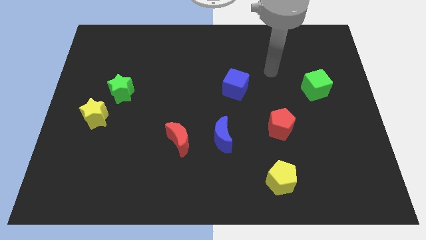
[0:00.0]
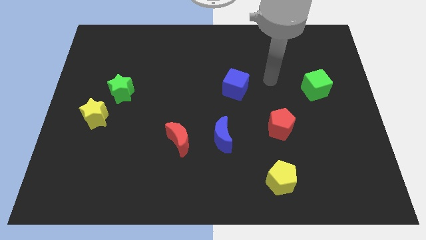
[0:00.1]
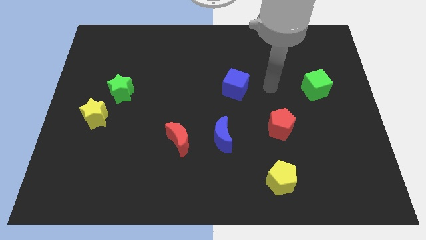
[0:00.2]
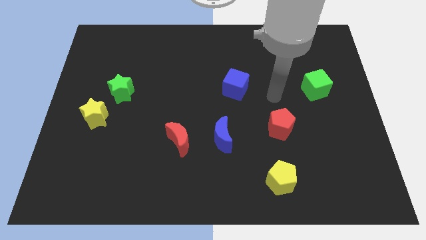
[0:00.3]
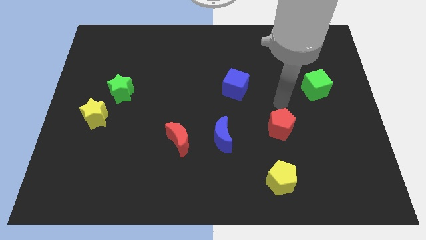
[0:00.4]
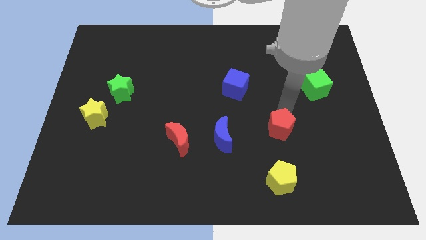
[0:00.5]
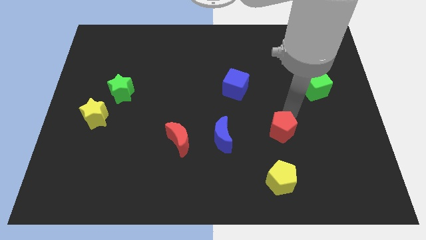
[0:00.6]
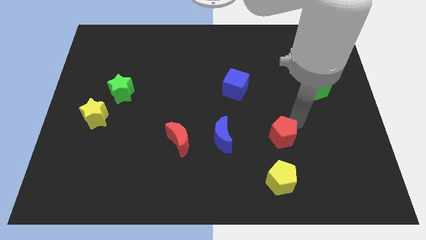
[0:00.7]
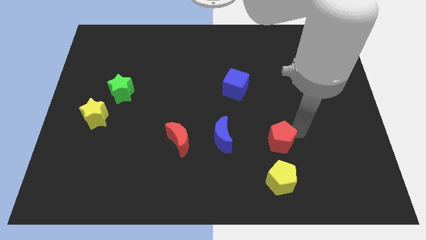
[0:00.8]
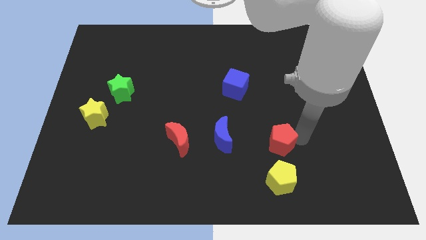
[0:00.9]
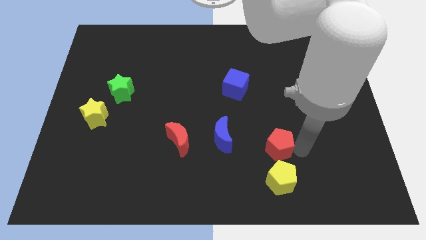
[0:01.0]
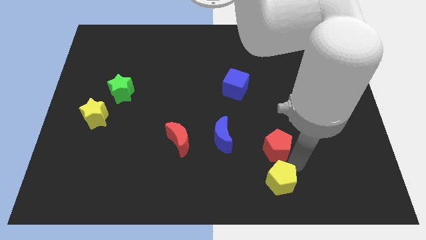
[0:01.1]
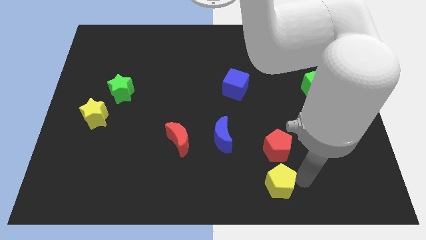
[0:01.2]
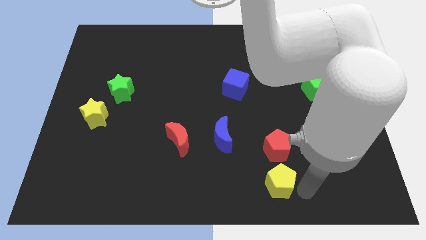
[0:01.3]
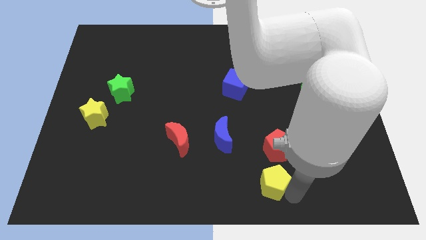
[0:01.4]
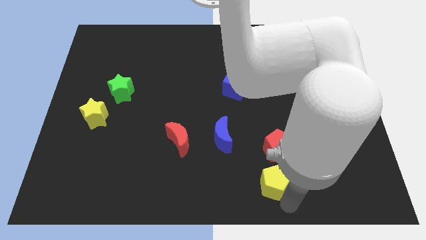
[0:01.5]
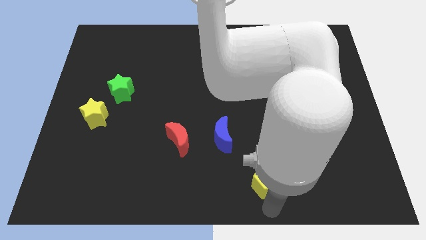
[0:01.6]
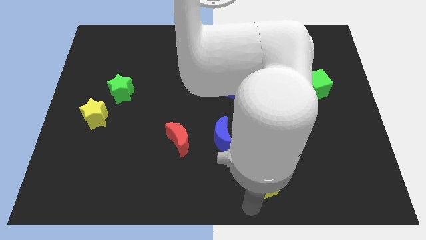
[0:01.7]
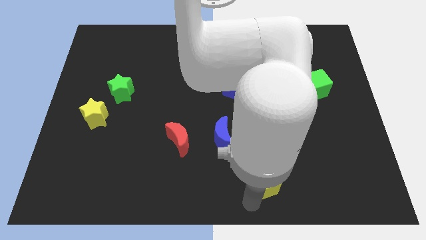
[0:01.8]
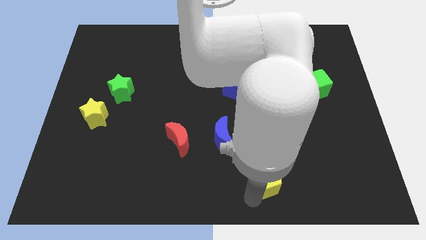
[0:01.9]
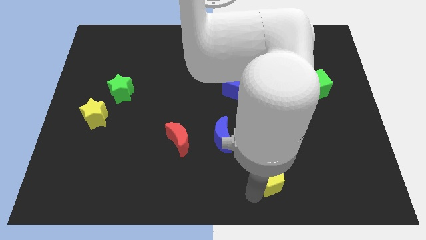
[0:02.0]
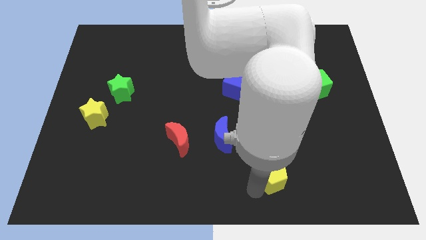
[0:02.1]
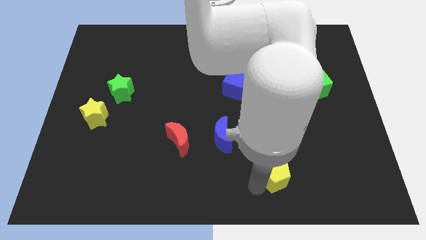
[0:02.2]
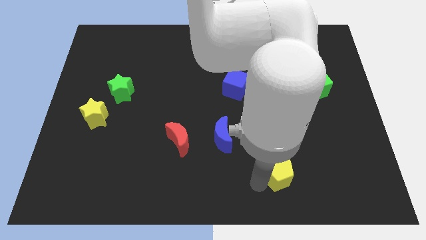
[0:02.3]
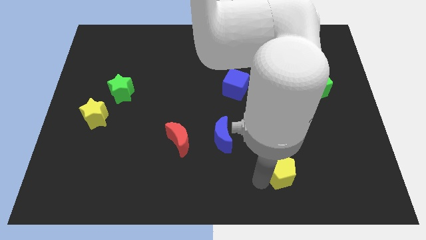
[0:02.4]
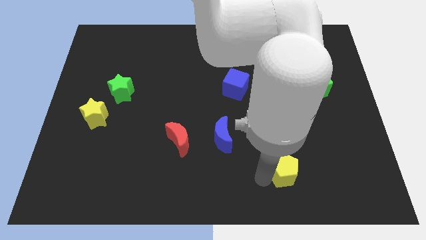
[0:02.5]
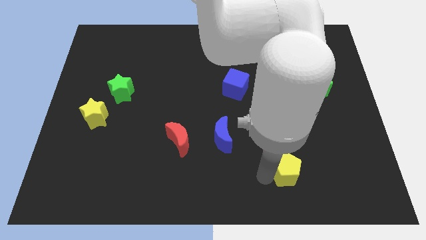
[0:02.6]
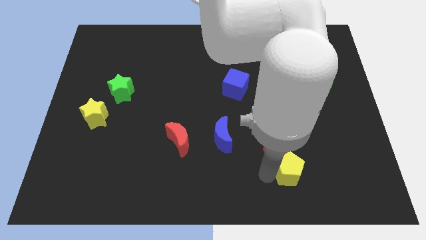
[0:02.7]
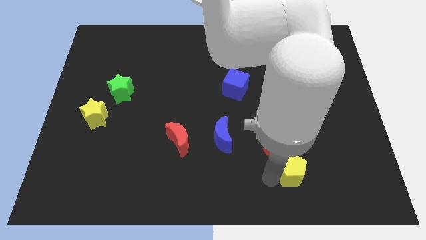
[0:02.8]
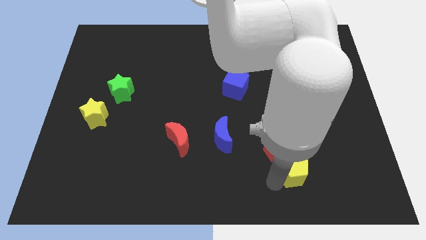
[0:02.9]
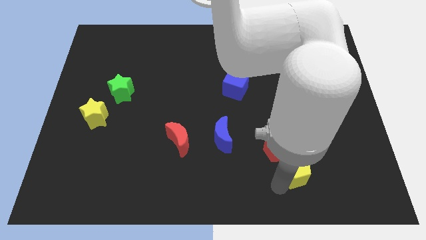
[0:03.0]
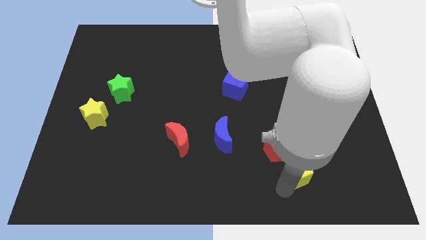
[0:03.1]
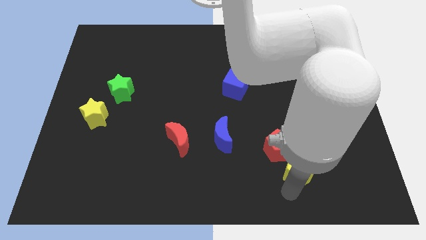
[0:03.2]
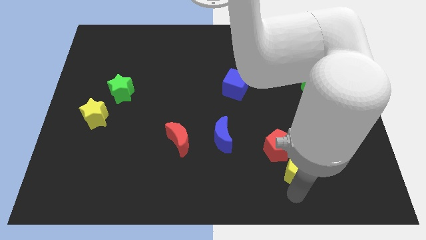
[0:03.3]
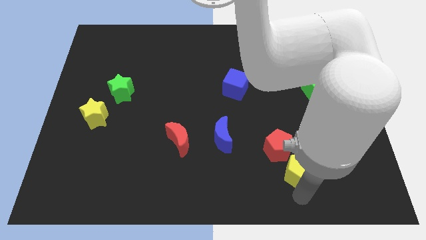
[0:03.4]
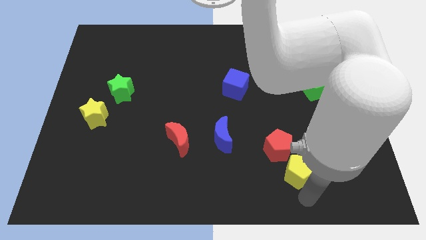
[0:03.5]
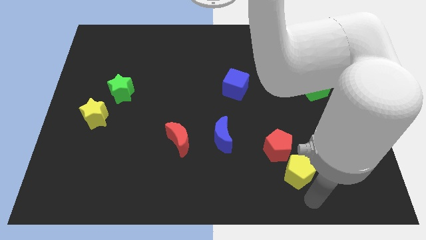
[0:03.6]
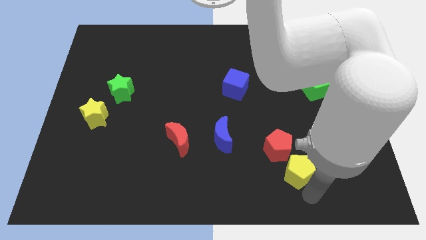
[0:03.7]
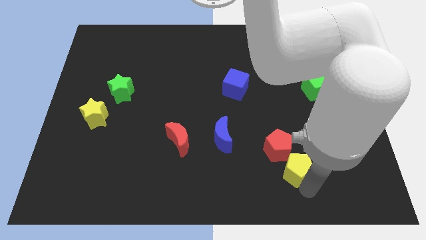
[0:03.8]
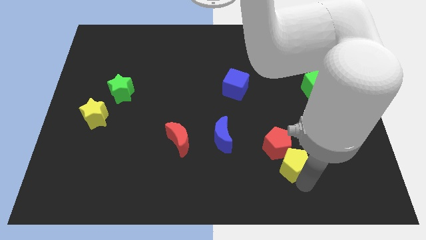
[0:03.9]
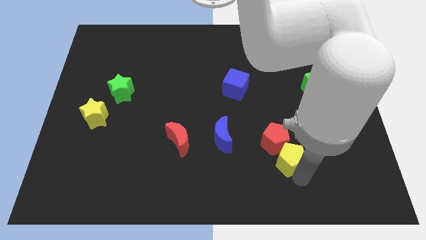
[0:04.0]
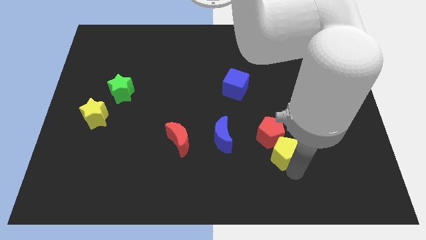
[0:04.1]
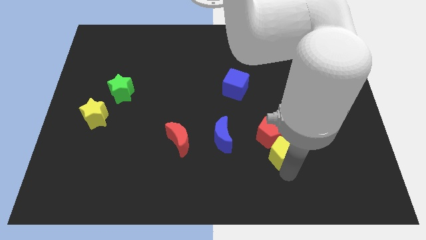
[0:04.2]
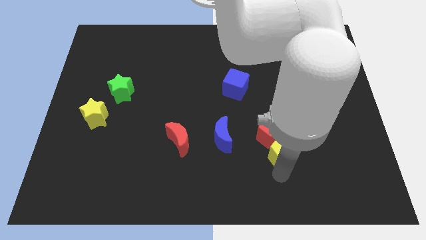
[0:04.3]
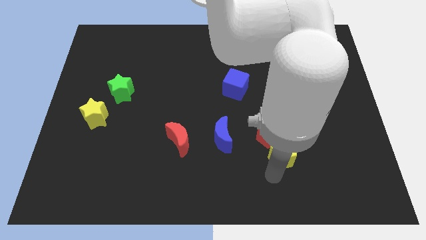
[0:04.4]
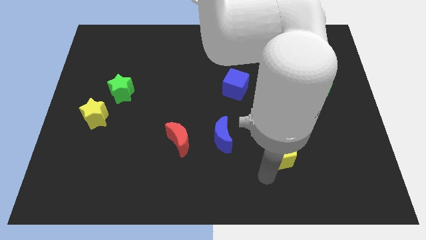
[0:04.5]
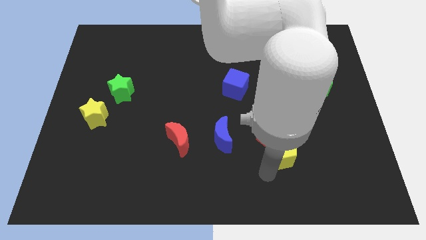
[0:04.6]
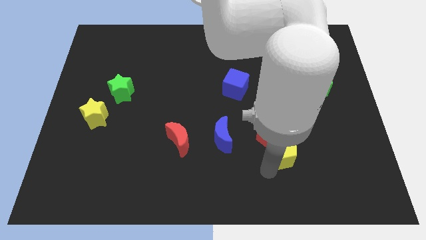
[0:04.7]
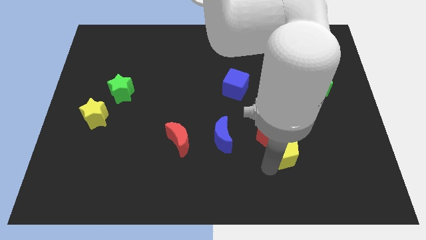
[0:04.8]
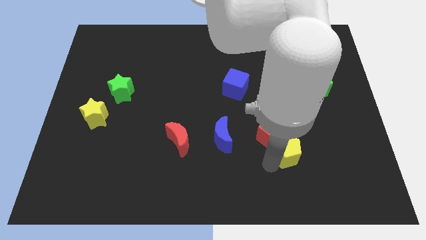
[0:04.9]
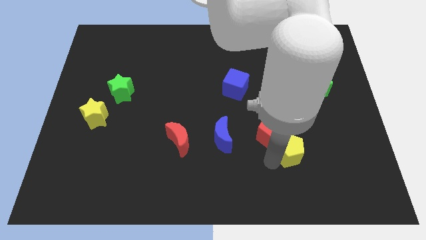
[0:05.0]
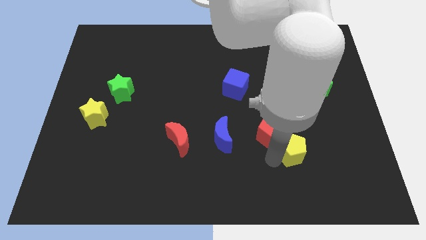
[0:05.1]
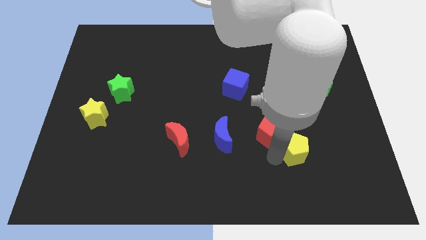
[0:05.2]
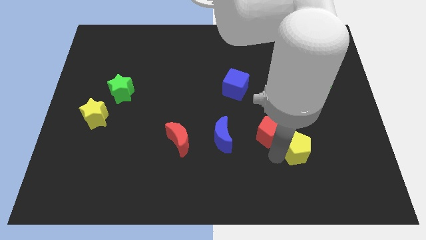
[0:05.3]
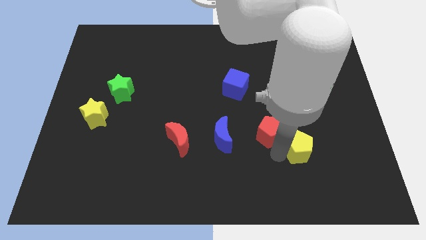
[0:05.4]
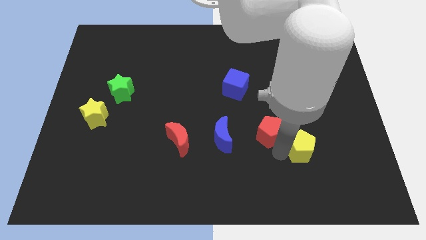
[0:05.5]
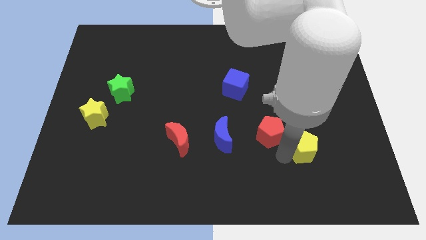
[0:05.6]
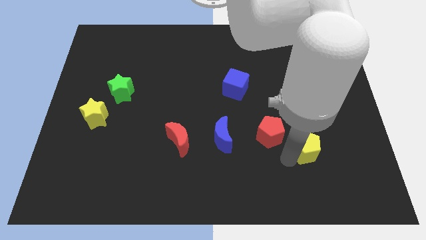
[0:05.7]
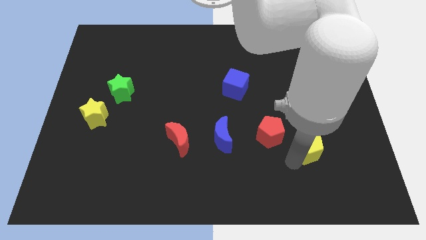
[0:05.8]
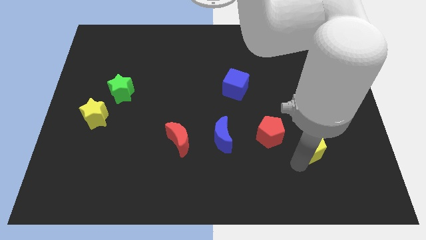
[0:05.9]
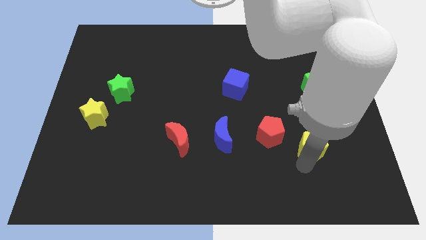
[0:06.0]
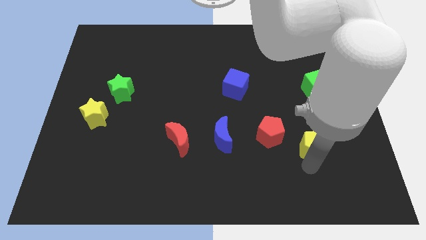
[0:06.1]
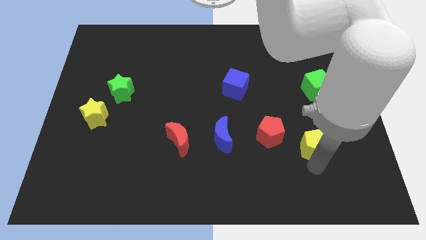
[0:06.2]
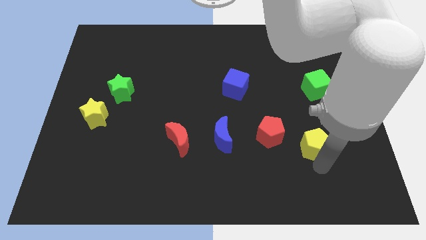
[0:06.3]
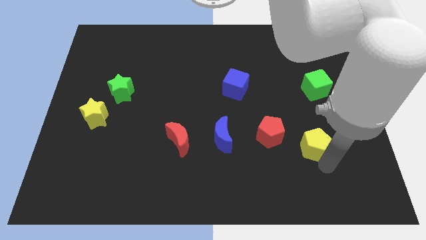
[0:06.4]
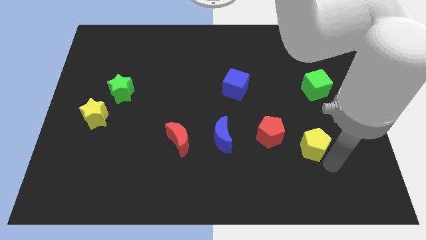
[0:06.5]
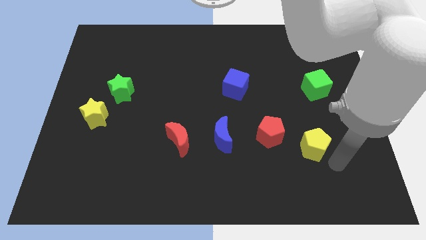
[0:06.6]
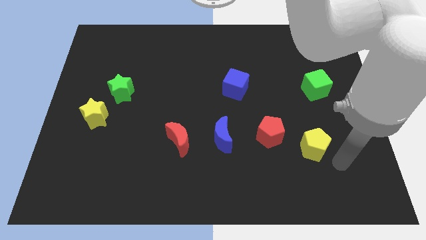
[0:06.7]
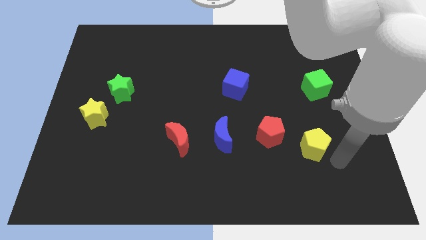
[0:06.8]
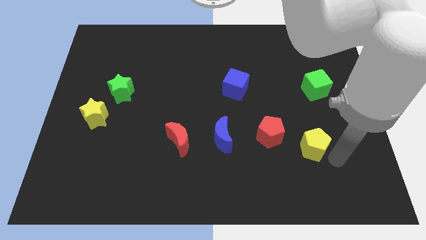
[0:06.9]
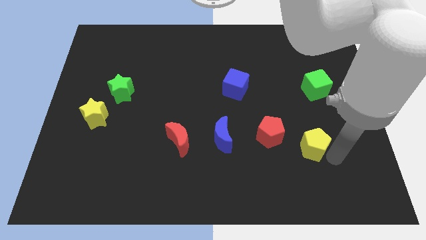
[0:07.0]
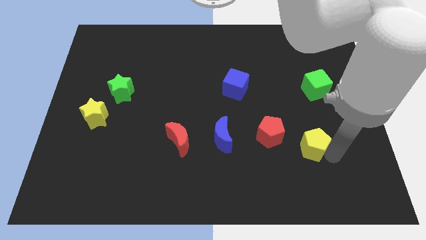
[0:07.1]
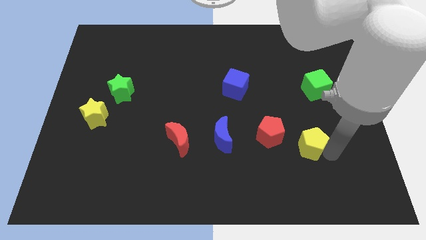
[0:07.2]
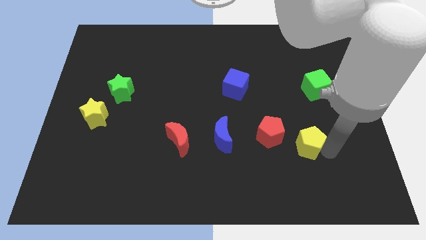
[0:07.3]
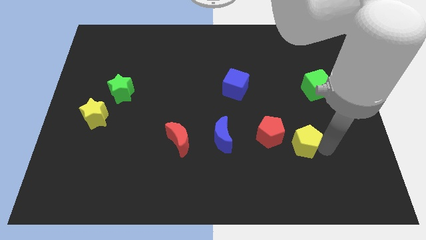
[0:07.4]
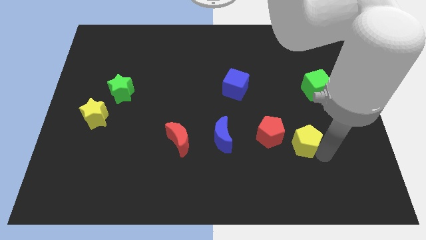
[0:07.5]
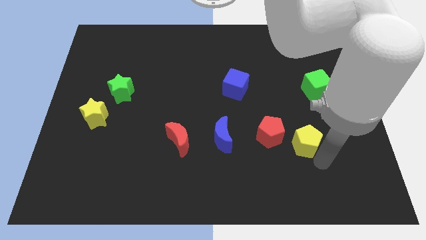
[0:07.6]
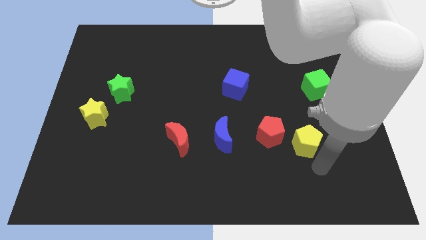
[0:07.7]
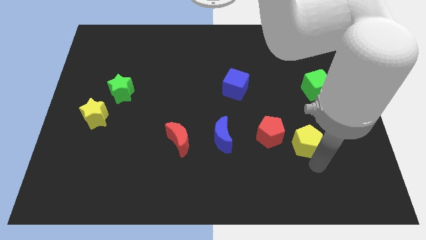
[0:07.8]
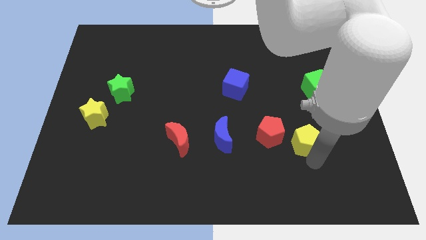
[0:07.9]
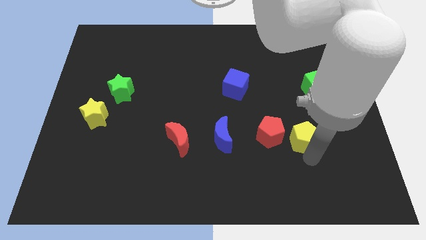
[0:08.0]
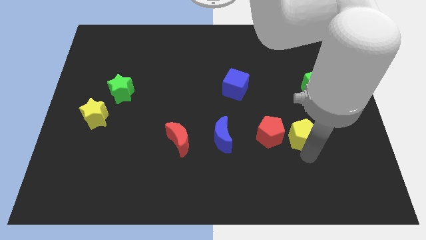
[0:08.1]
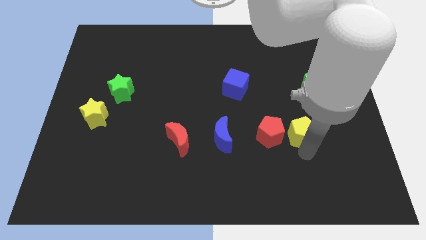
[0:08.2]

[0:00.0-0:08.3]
put the yellow pentagon to the top right of the red pentagon
